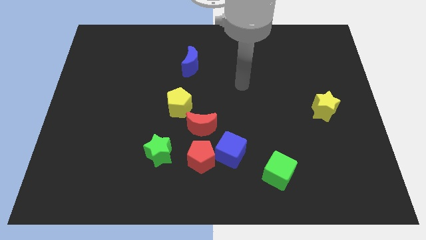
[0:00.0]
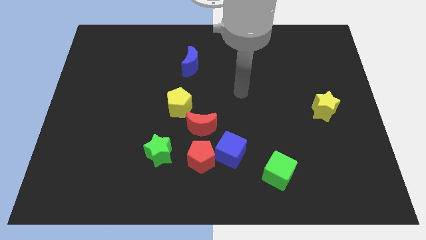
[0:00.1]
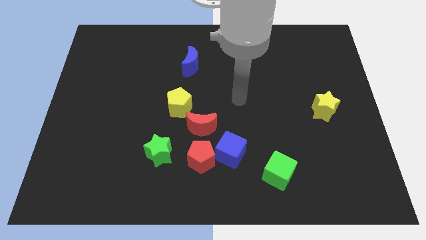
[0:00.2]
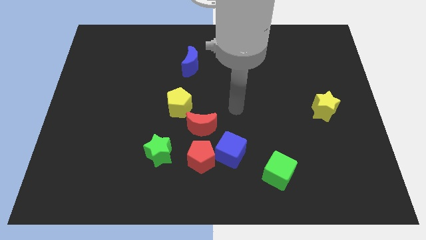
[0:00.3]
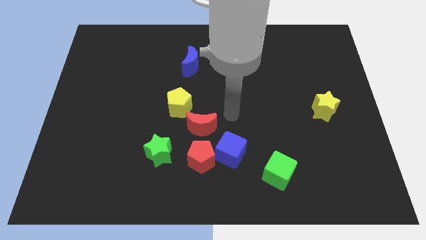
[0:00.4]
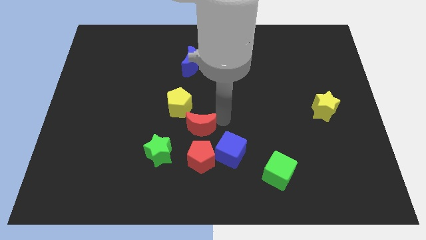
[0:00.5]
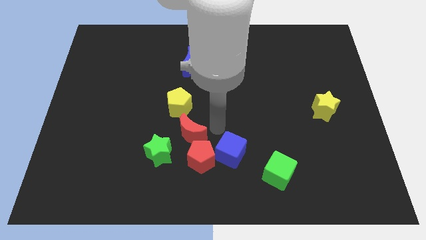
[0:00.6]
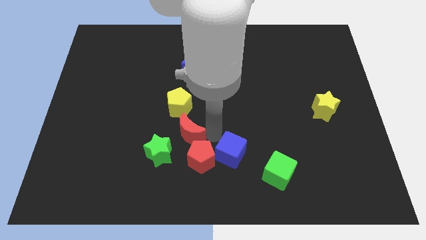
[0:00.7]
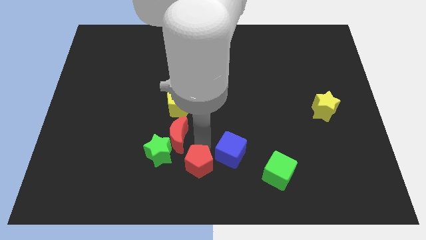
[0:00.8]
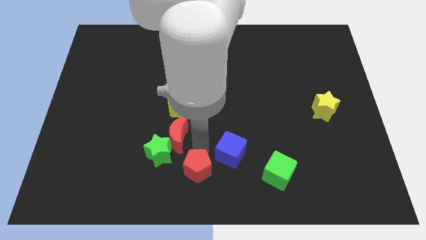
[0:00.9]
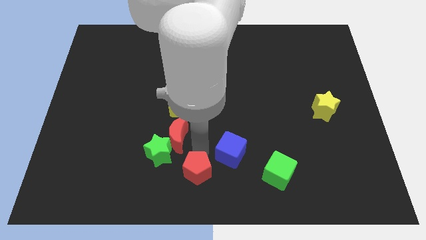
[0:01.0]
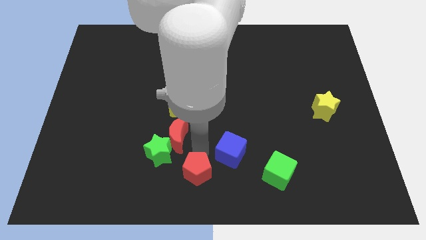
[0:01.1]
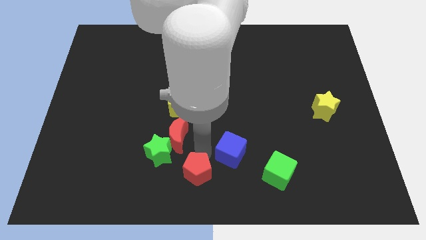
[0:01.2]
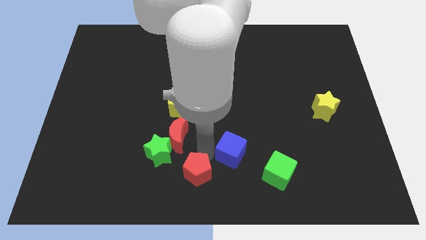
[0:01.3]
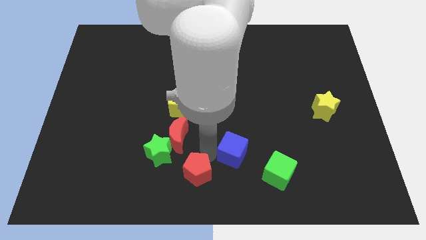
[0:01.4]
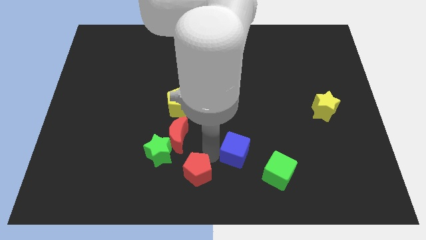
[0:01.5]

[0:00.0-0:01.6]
separate the blue cube from the red pentagon and red moon

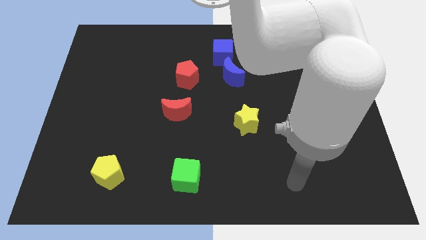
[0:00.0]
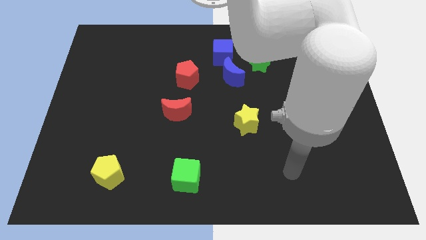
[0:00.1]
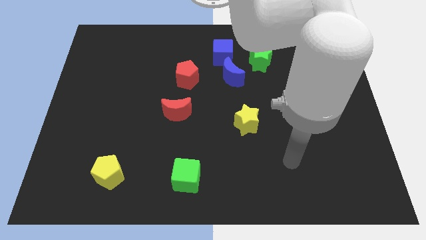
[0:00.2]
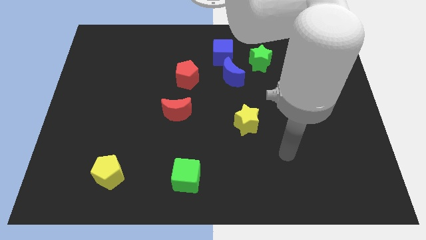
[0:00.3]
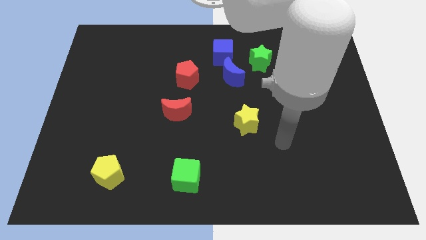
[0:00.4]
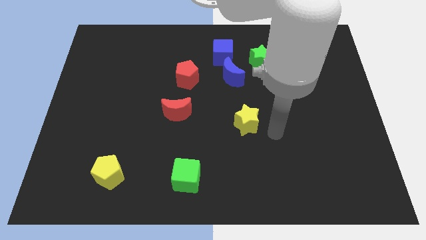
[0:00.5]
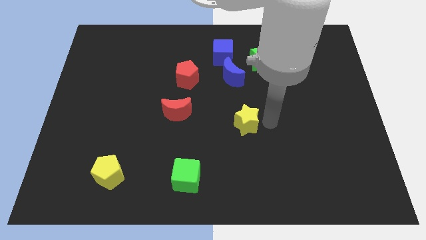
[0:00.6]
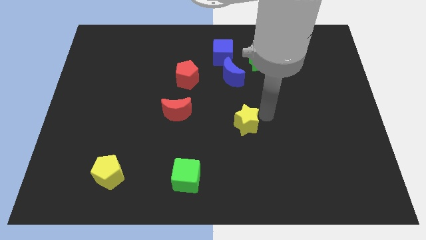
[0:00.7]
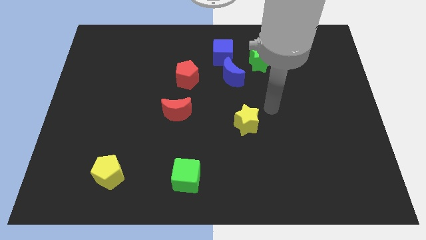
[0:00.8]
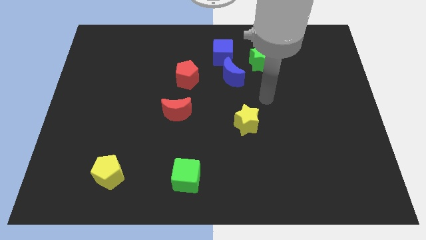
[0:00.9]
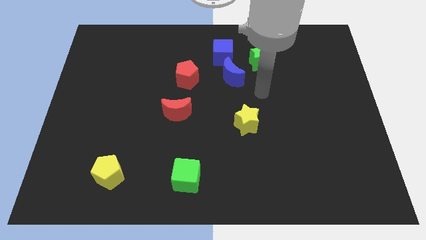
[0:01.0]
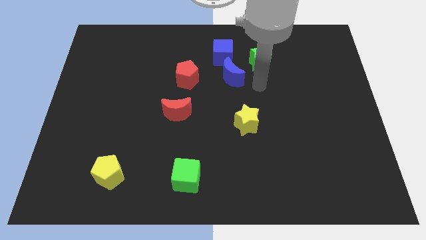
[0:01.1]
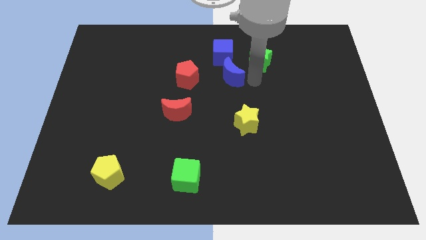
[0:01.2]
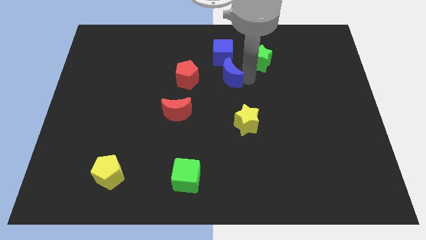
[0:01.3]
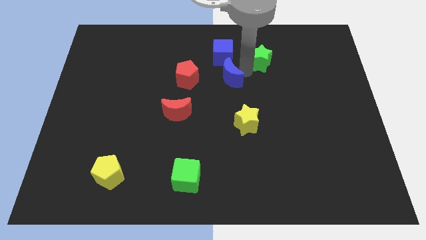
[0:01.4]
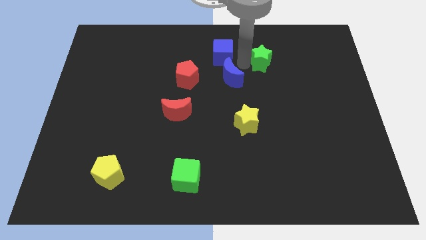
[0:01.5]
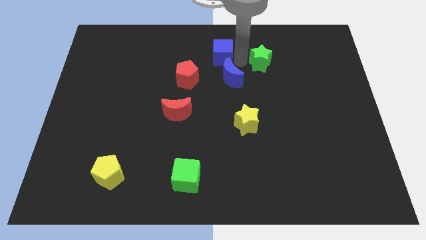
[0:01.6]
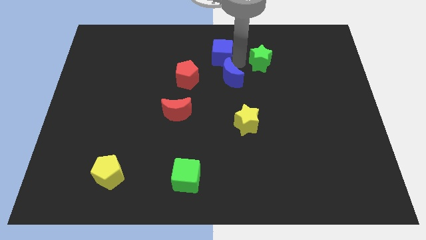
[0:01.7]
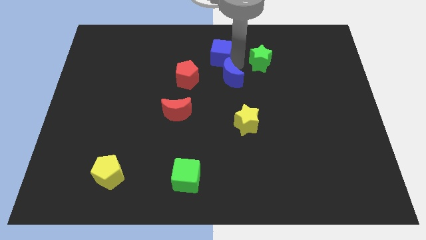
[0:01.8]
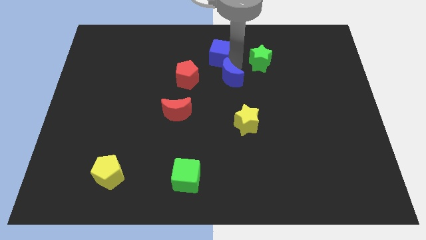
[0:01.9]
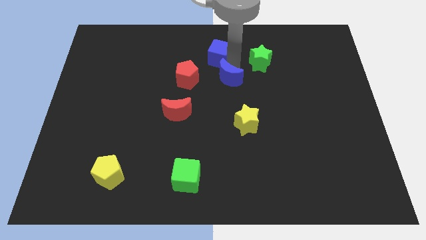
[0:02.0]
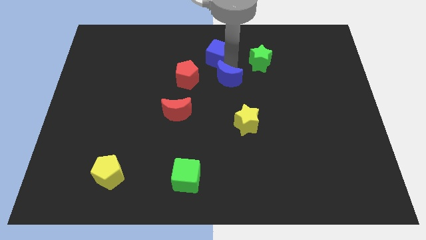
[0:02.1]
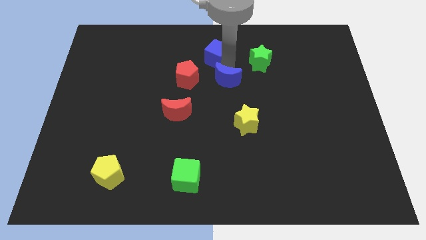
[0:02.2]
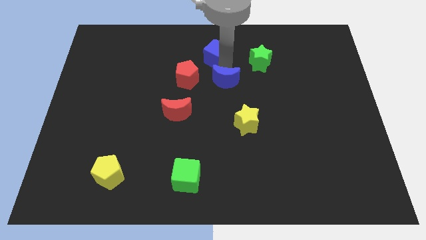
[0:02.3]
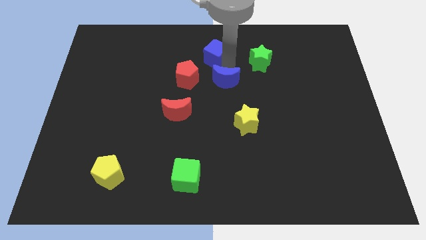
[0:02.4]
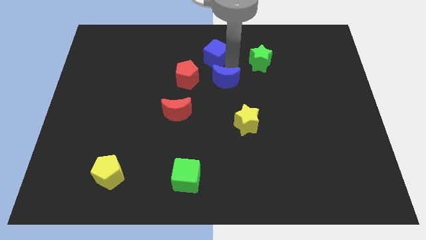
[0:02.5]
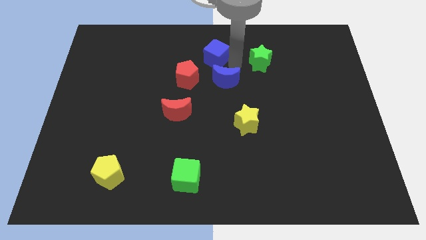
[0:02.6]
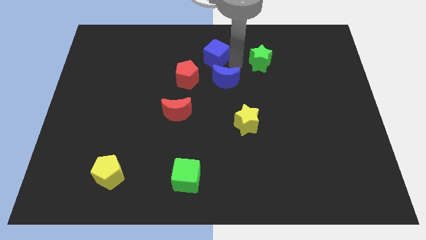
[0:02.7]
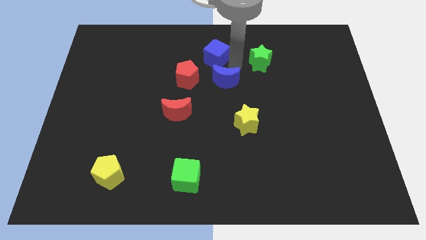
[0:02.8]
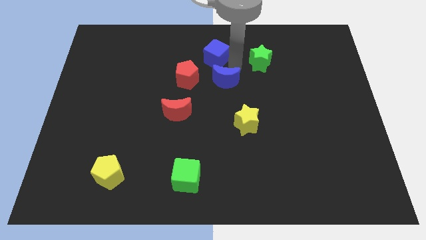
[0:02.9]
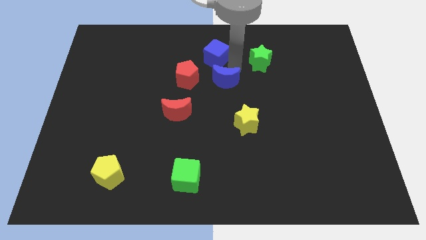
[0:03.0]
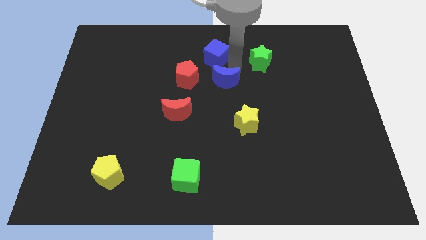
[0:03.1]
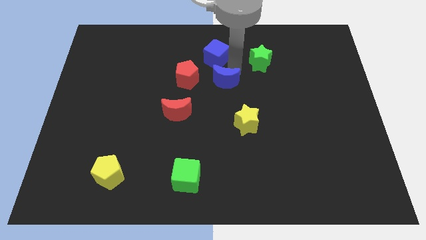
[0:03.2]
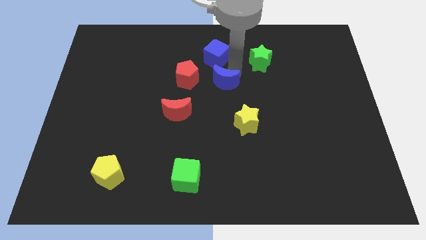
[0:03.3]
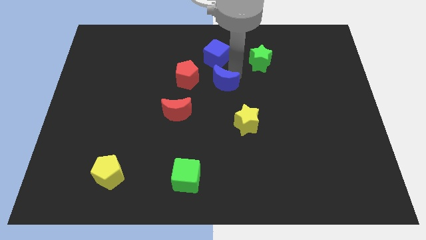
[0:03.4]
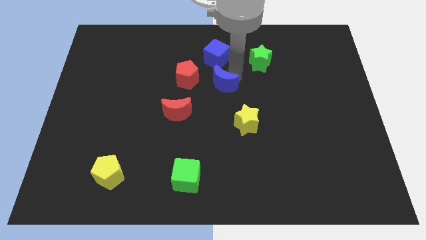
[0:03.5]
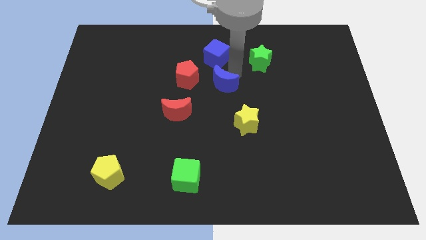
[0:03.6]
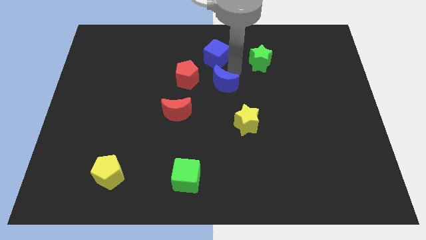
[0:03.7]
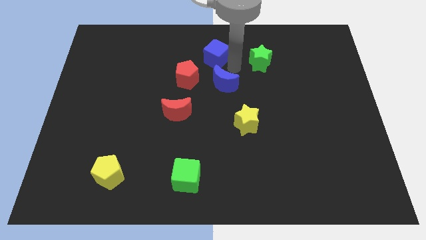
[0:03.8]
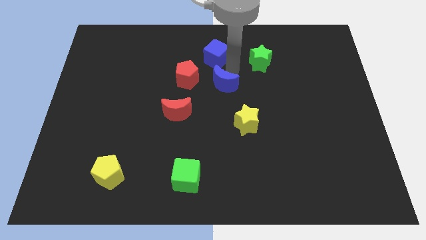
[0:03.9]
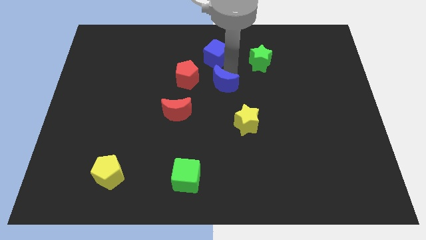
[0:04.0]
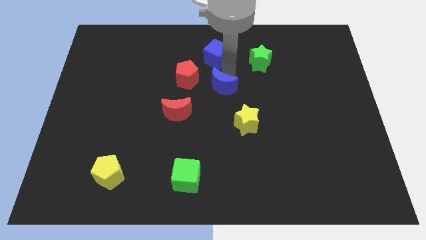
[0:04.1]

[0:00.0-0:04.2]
pull the blue moon apart from the blue cube and green star

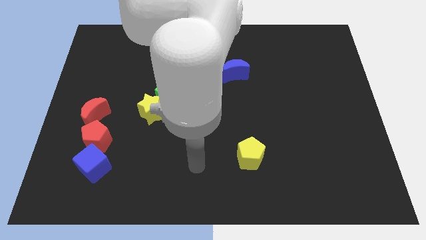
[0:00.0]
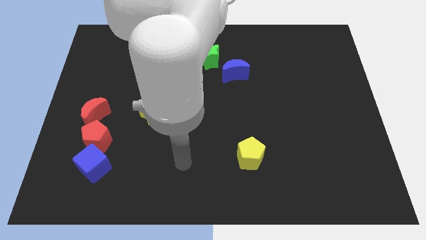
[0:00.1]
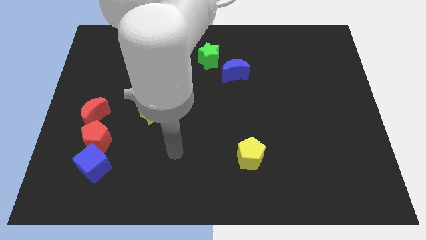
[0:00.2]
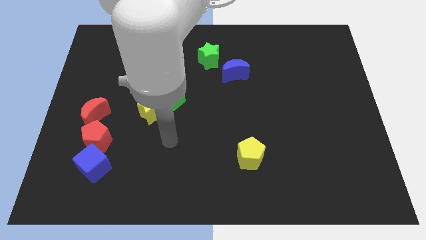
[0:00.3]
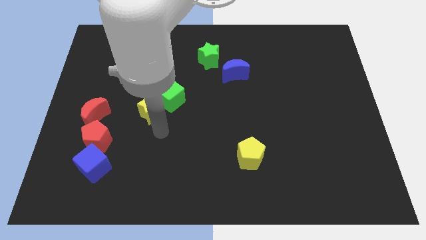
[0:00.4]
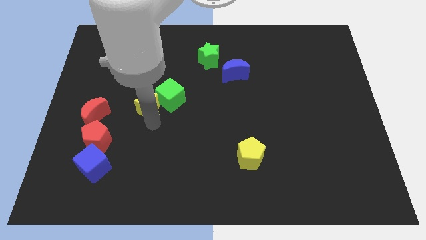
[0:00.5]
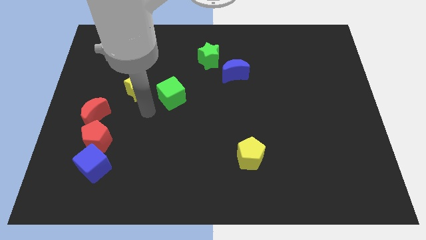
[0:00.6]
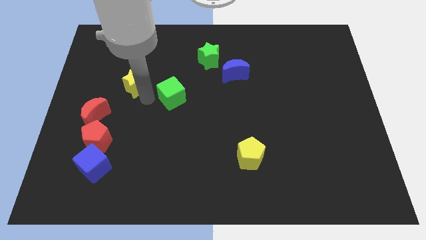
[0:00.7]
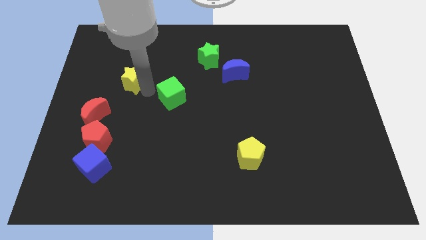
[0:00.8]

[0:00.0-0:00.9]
move the green cube away from the yellow star

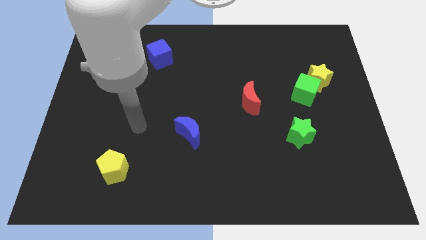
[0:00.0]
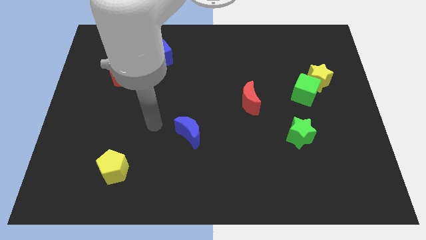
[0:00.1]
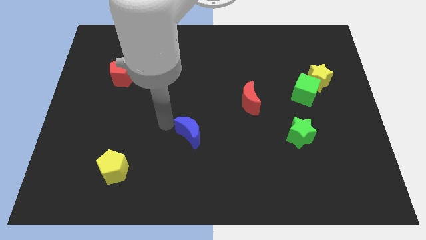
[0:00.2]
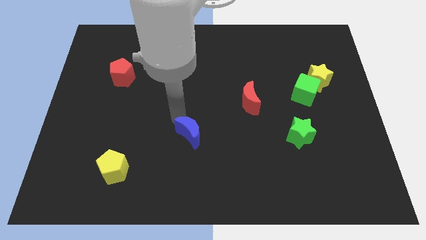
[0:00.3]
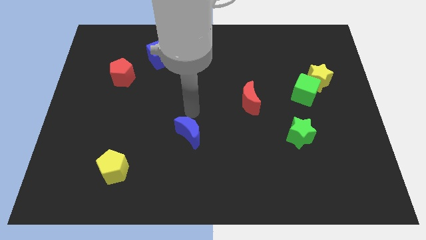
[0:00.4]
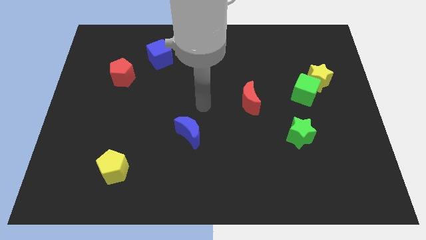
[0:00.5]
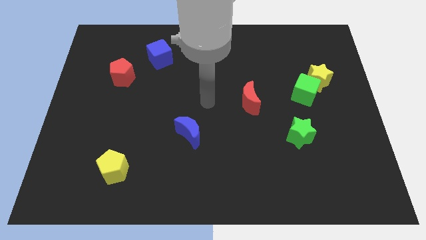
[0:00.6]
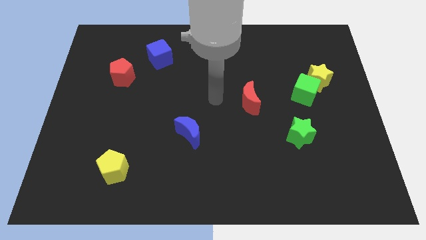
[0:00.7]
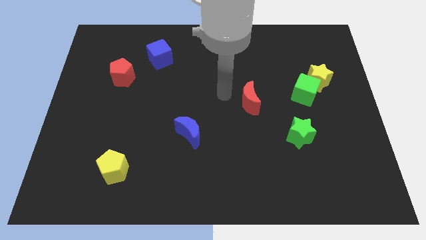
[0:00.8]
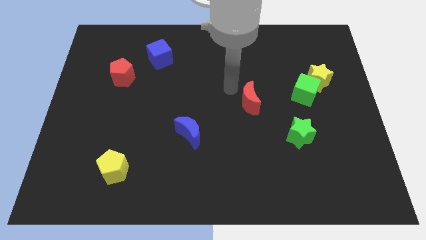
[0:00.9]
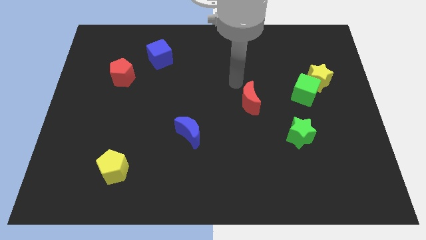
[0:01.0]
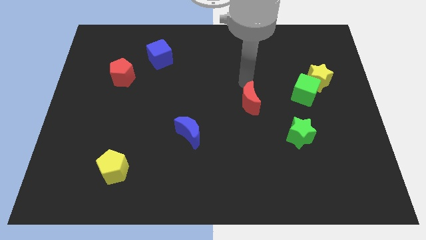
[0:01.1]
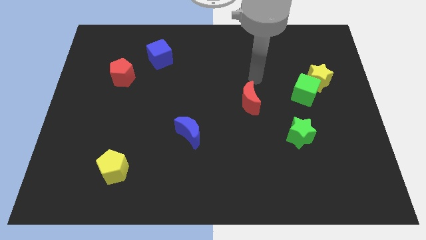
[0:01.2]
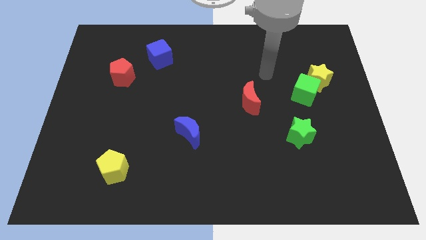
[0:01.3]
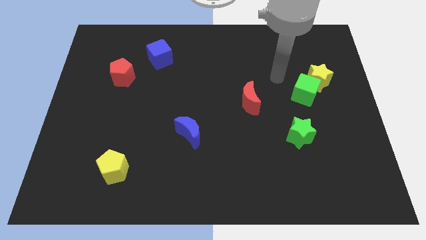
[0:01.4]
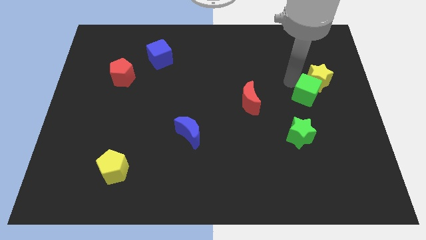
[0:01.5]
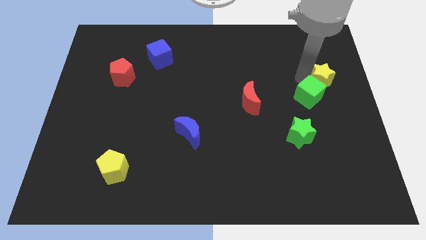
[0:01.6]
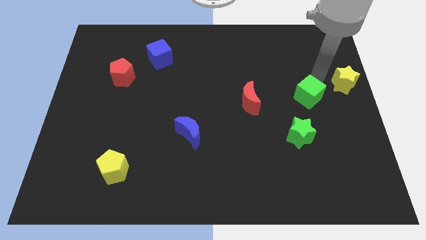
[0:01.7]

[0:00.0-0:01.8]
pull the green cube apart from the yellow star

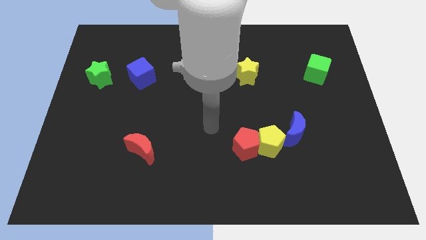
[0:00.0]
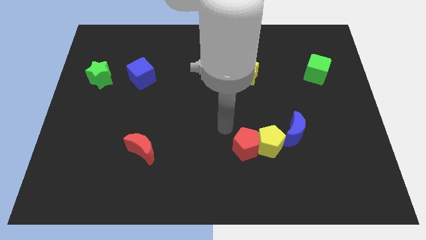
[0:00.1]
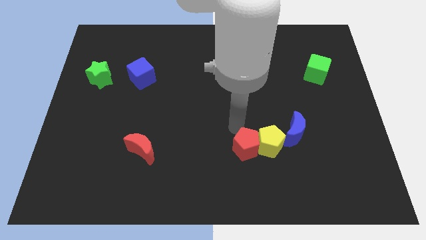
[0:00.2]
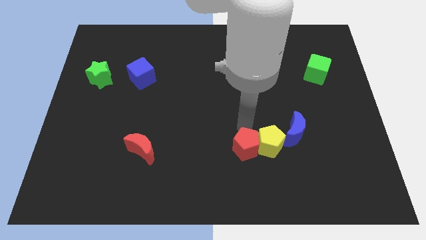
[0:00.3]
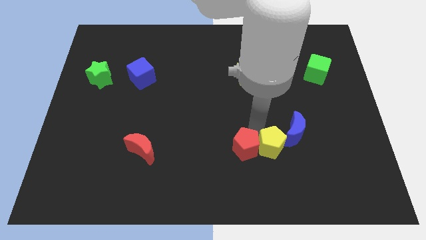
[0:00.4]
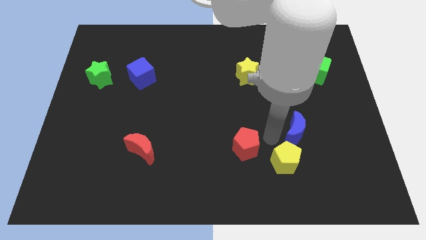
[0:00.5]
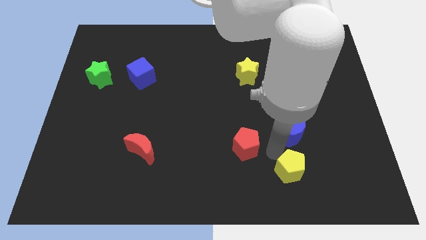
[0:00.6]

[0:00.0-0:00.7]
move the red pentagon away from the yellow pentagon

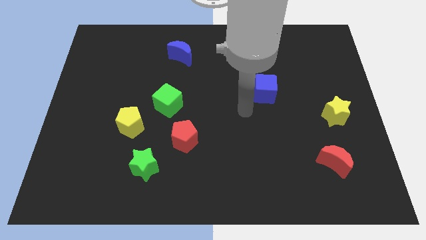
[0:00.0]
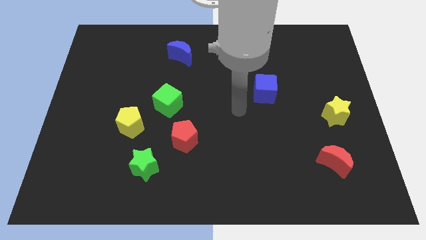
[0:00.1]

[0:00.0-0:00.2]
move the green cube away from the yellow pentagon
